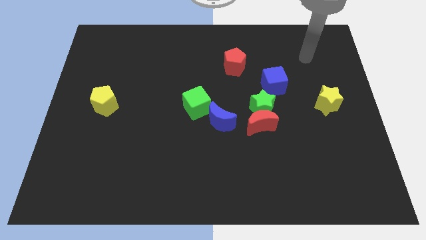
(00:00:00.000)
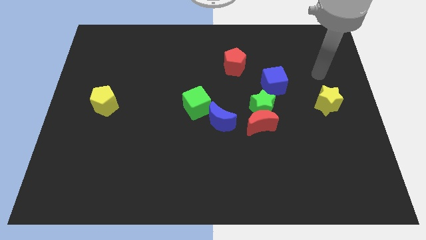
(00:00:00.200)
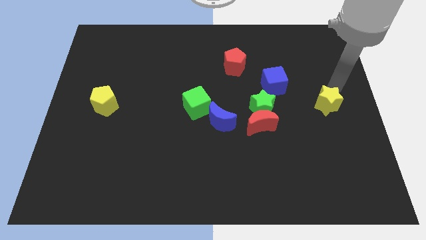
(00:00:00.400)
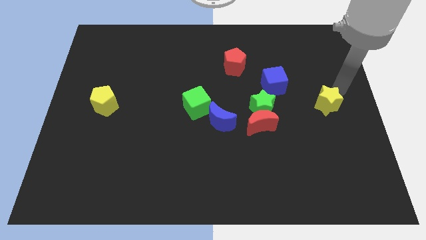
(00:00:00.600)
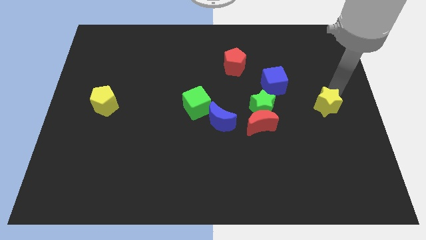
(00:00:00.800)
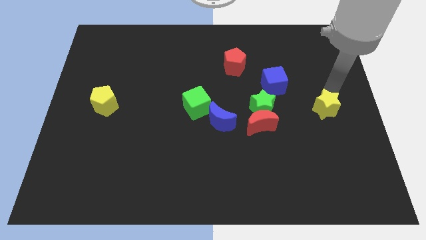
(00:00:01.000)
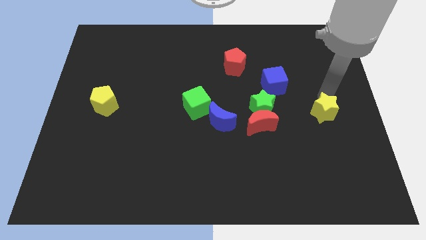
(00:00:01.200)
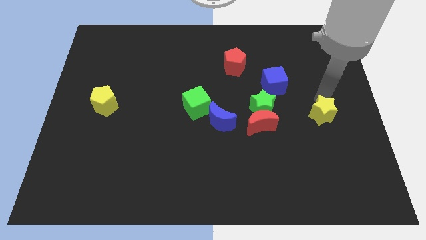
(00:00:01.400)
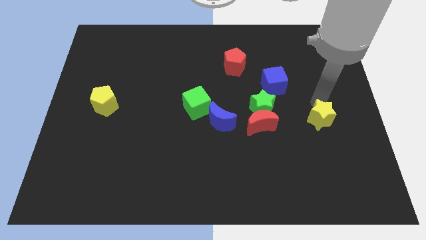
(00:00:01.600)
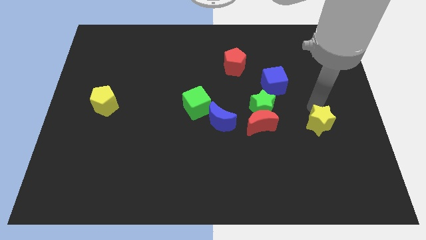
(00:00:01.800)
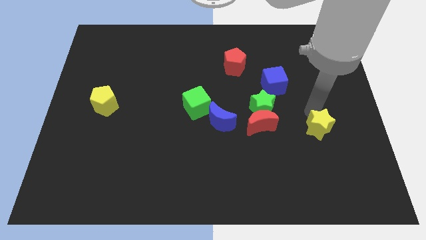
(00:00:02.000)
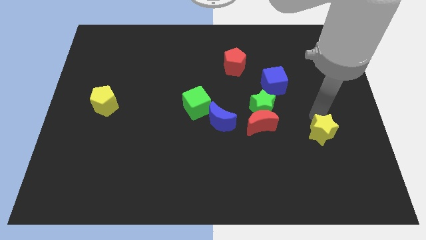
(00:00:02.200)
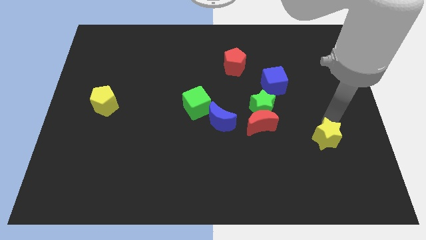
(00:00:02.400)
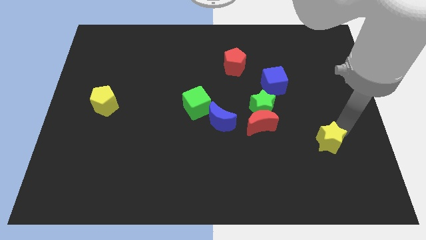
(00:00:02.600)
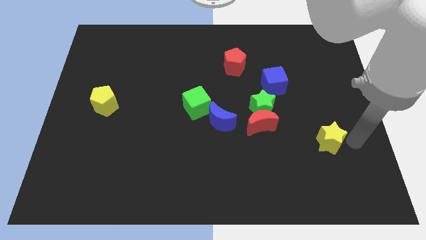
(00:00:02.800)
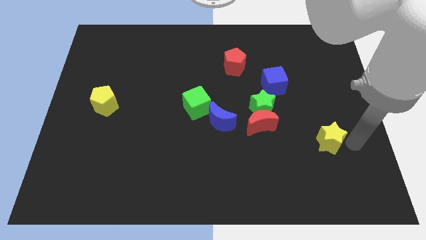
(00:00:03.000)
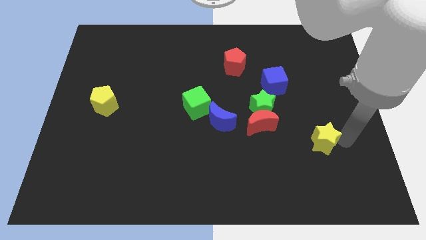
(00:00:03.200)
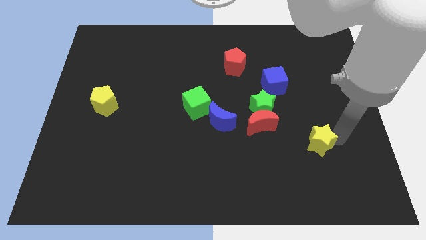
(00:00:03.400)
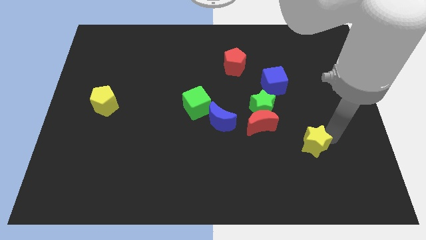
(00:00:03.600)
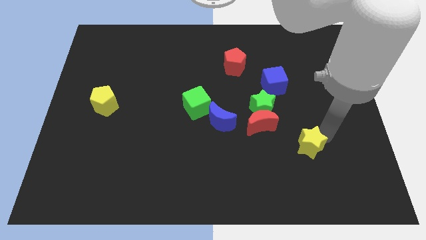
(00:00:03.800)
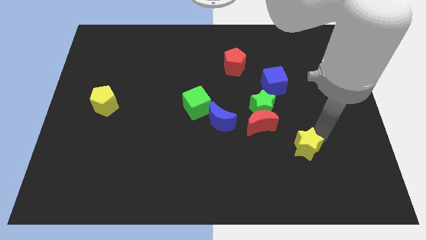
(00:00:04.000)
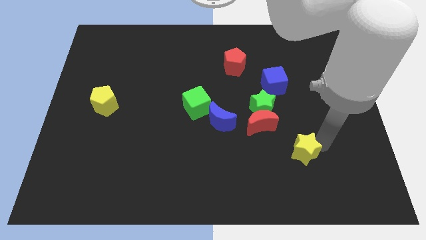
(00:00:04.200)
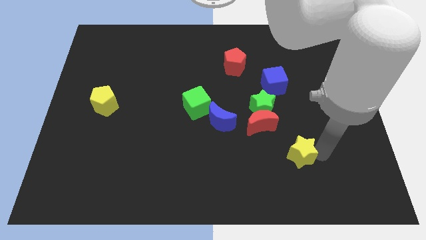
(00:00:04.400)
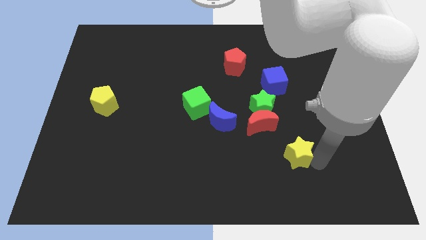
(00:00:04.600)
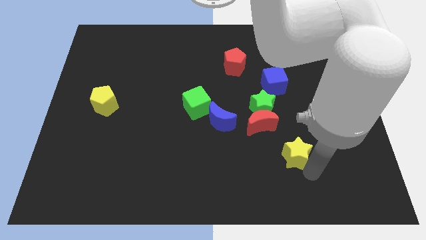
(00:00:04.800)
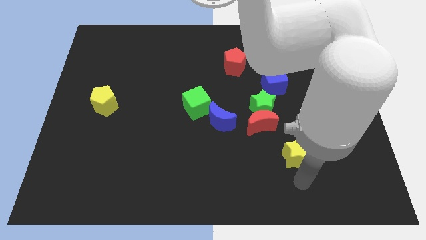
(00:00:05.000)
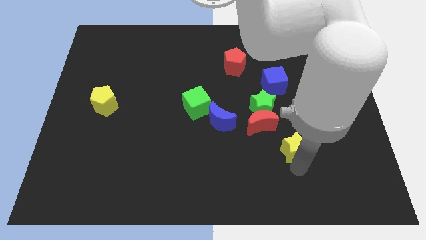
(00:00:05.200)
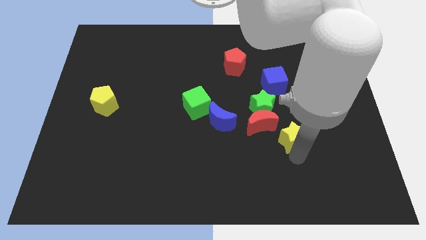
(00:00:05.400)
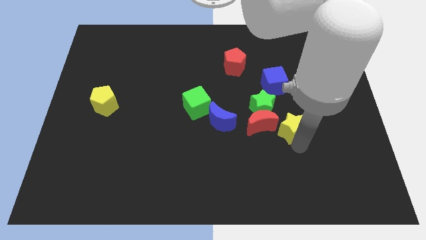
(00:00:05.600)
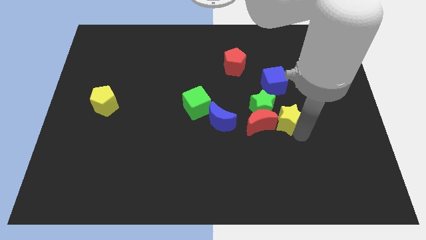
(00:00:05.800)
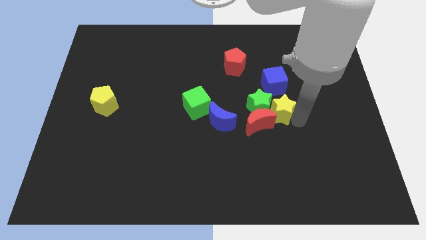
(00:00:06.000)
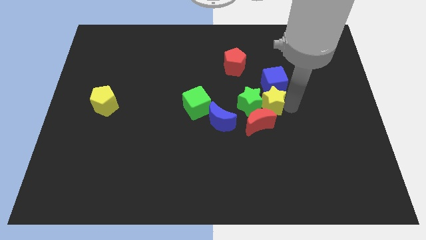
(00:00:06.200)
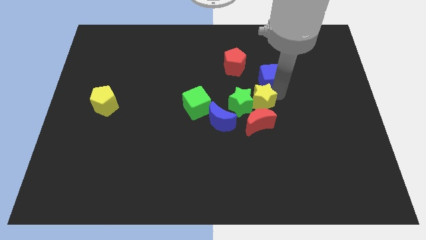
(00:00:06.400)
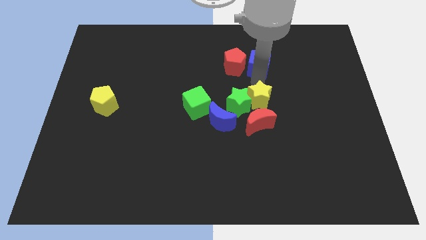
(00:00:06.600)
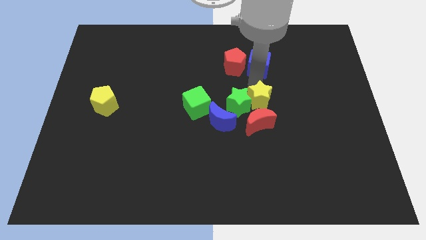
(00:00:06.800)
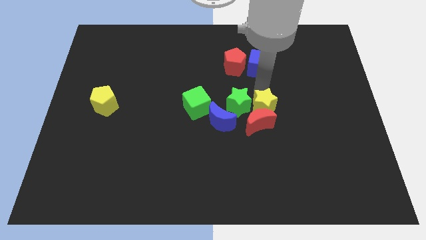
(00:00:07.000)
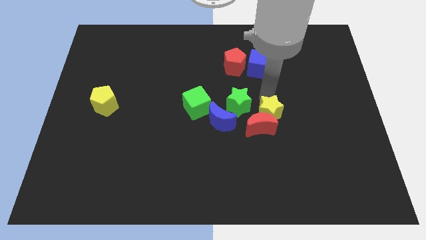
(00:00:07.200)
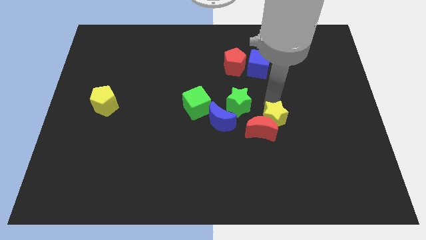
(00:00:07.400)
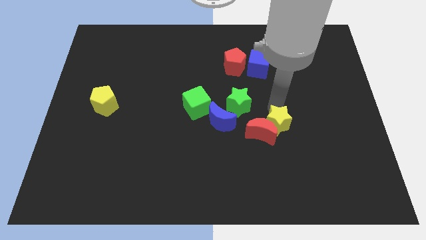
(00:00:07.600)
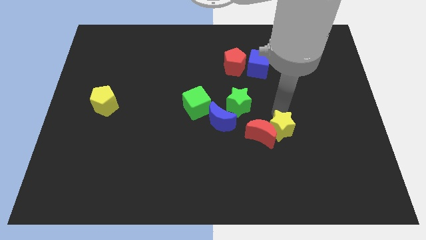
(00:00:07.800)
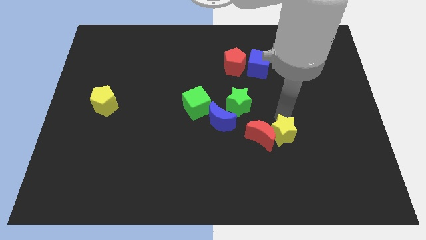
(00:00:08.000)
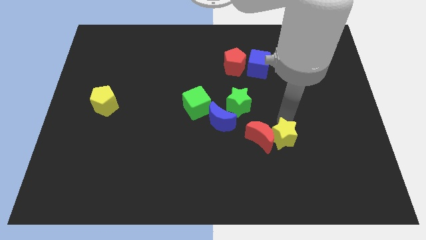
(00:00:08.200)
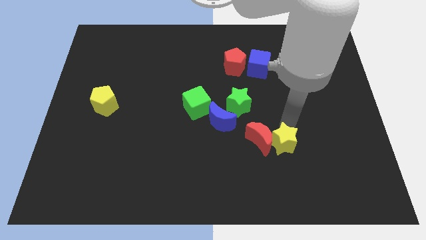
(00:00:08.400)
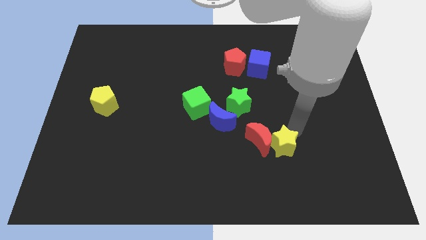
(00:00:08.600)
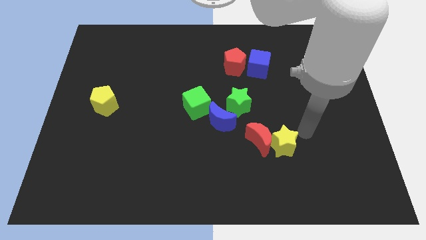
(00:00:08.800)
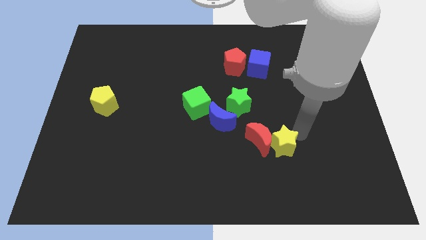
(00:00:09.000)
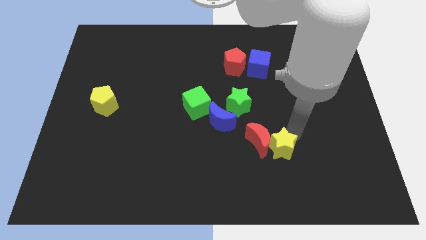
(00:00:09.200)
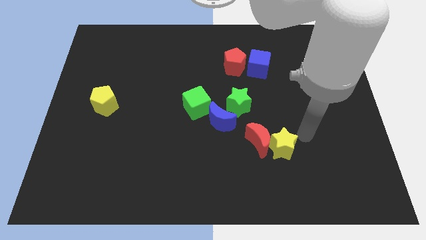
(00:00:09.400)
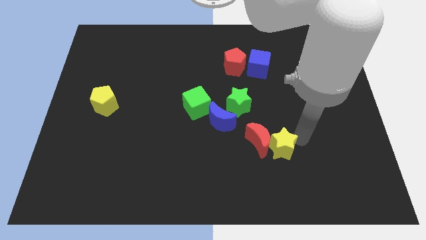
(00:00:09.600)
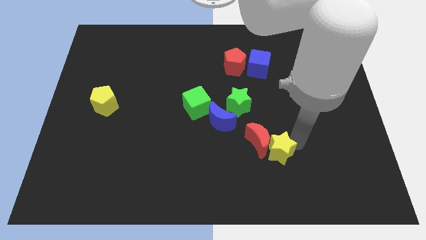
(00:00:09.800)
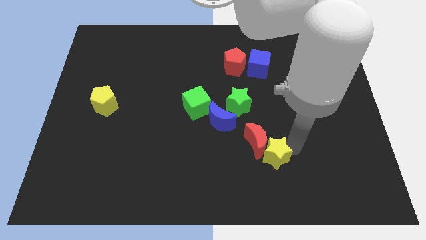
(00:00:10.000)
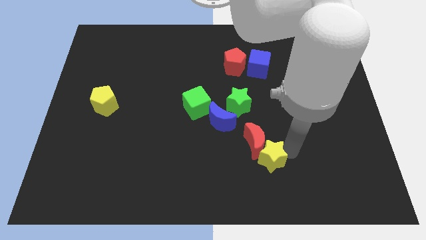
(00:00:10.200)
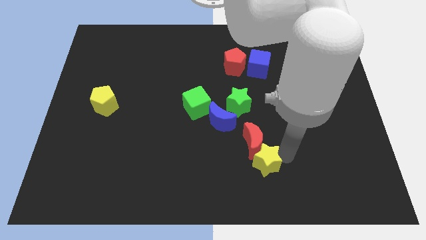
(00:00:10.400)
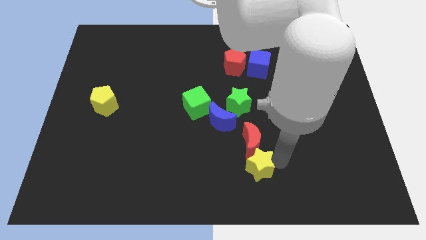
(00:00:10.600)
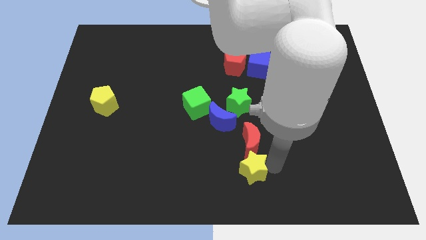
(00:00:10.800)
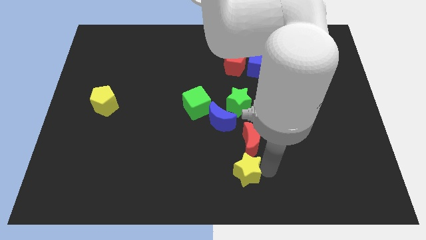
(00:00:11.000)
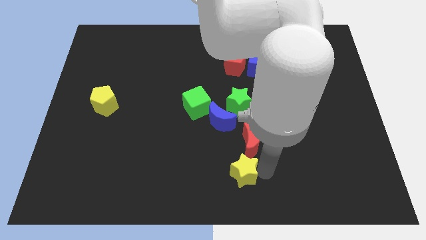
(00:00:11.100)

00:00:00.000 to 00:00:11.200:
put the yellow star to the bottom side of the blue moon

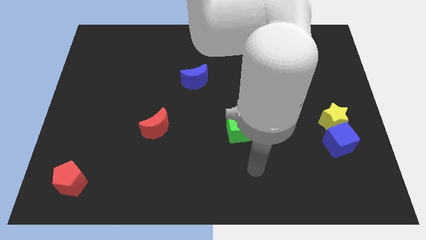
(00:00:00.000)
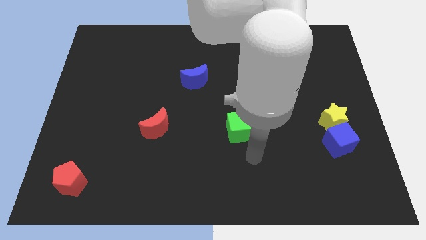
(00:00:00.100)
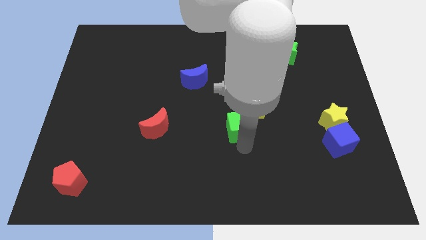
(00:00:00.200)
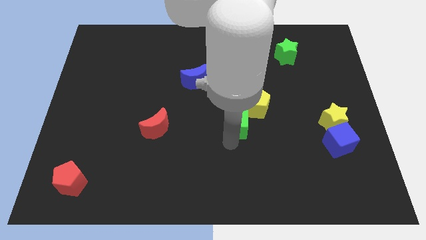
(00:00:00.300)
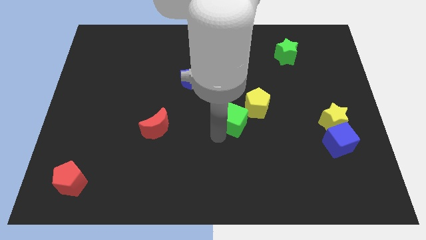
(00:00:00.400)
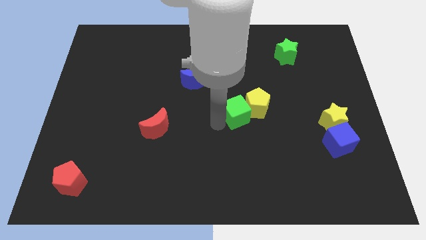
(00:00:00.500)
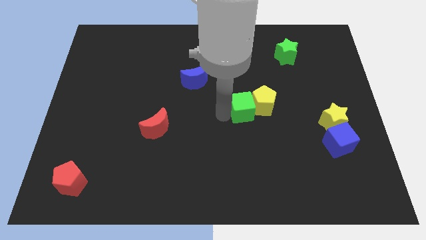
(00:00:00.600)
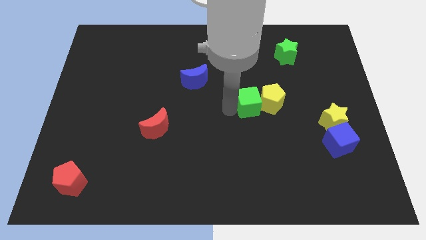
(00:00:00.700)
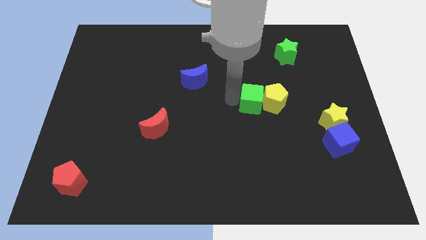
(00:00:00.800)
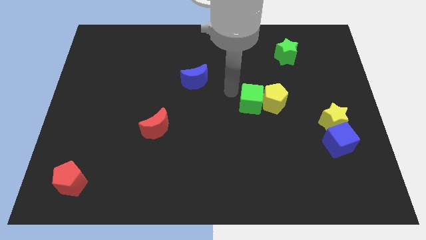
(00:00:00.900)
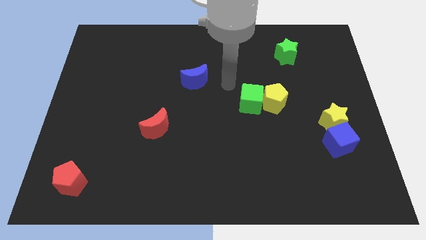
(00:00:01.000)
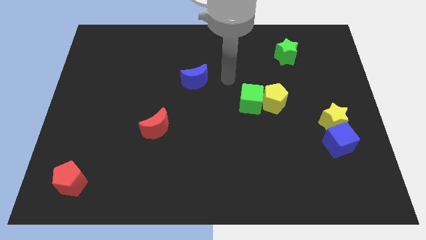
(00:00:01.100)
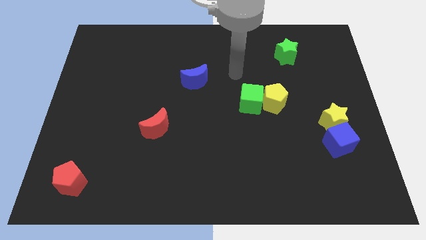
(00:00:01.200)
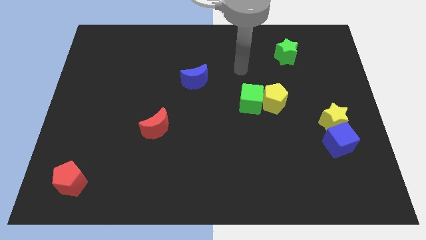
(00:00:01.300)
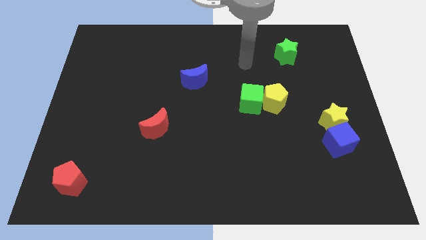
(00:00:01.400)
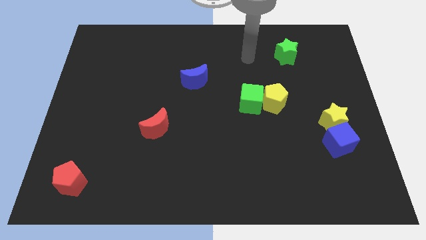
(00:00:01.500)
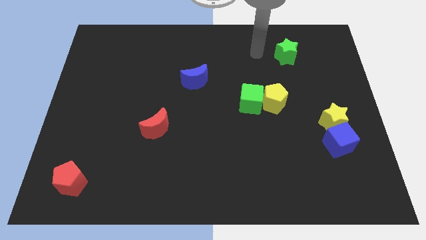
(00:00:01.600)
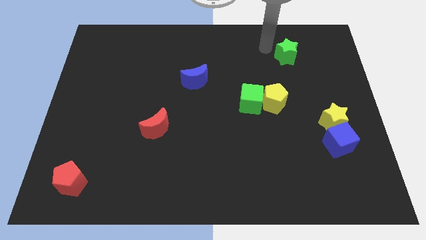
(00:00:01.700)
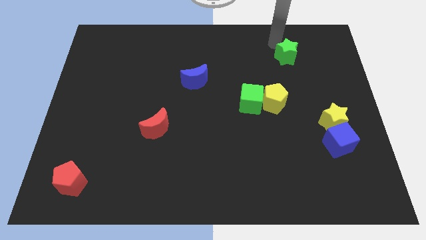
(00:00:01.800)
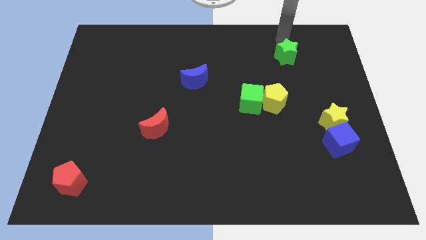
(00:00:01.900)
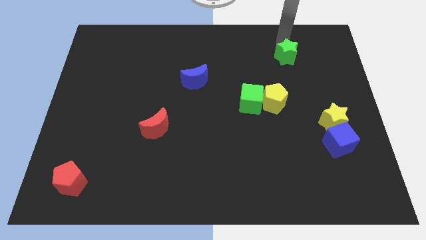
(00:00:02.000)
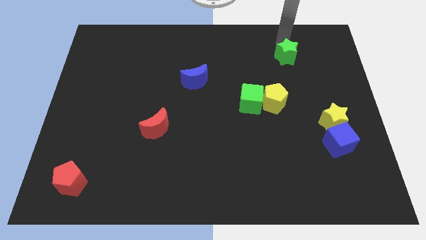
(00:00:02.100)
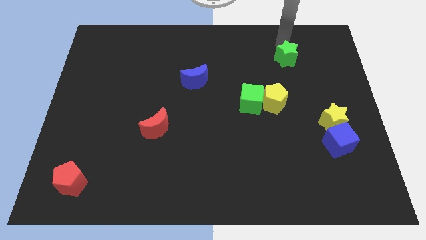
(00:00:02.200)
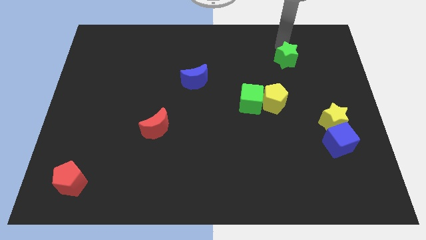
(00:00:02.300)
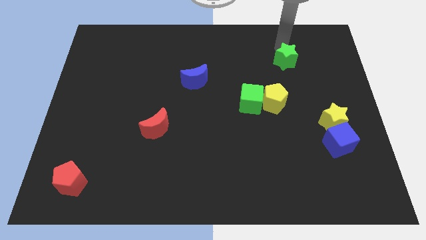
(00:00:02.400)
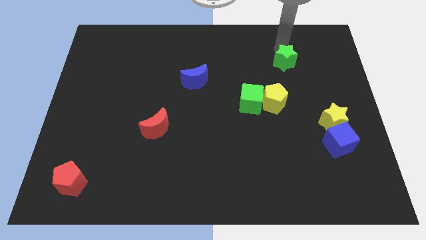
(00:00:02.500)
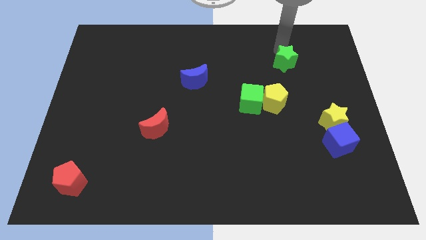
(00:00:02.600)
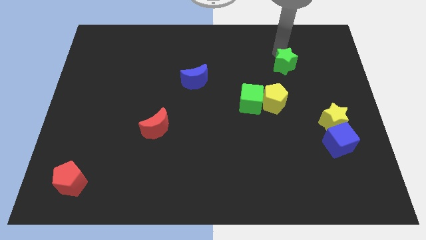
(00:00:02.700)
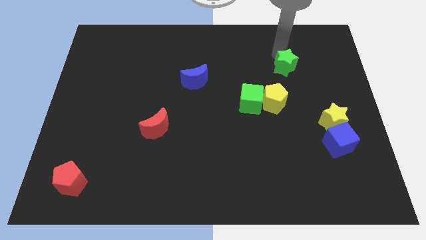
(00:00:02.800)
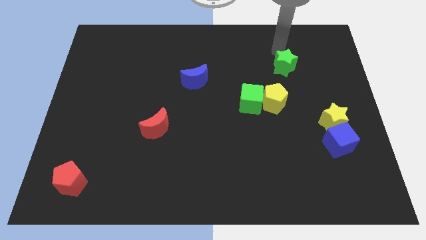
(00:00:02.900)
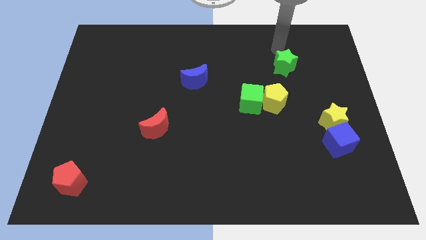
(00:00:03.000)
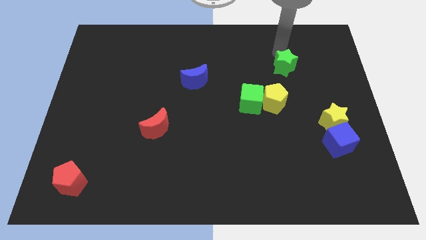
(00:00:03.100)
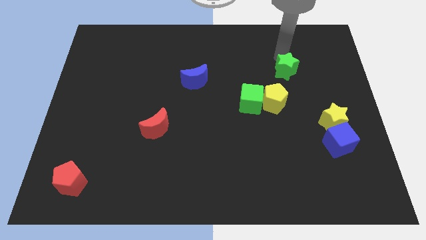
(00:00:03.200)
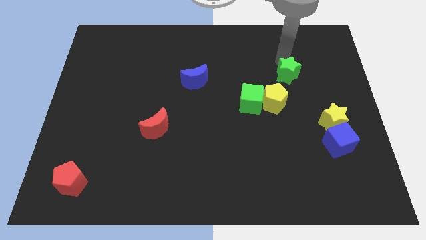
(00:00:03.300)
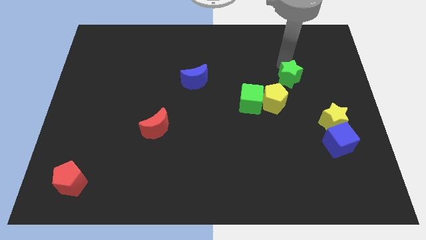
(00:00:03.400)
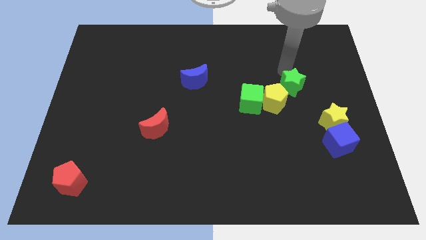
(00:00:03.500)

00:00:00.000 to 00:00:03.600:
push the green star to the right of the yellow pentagon
